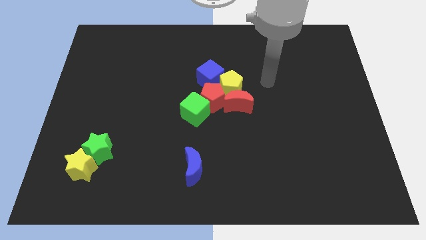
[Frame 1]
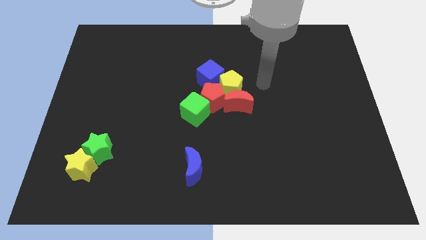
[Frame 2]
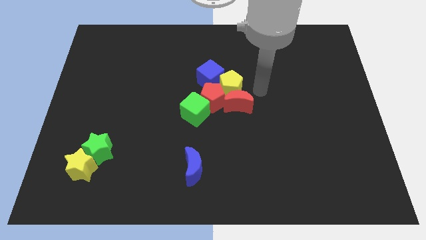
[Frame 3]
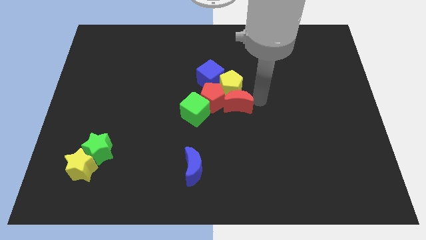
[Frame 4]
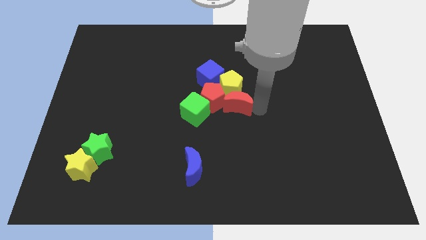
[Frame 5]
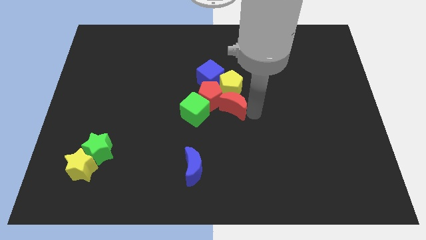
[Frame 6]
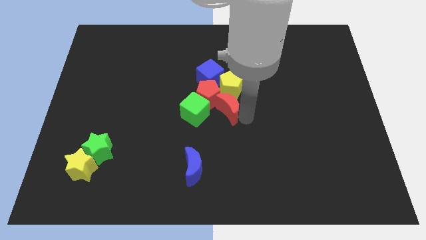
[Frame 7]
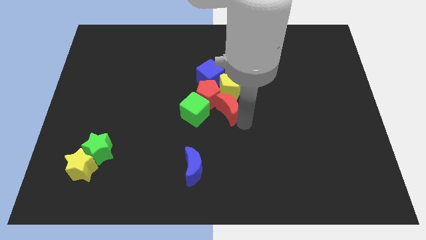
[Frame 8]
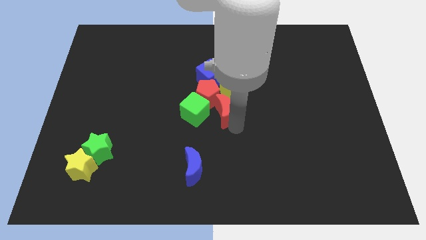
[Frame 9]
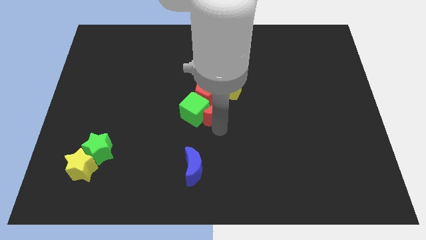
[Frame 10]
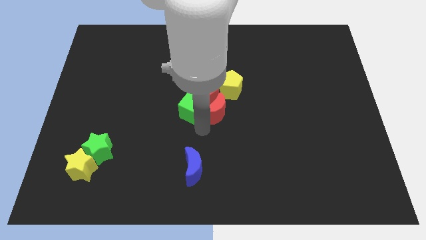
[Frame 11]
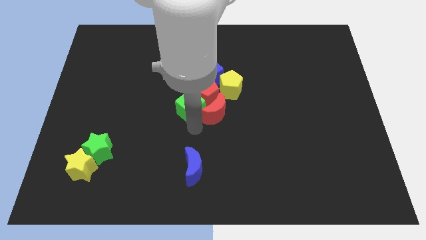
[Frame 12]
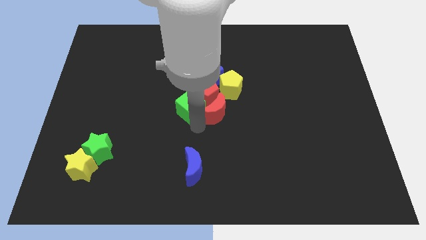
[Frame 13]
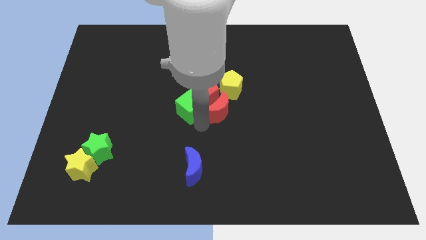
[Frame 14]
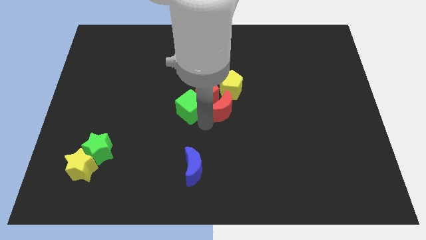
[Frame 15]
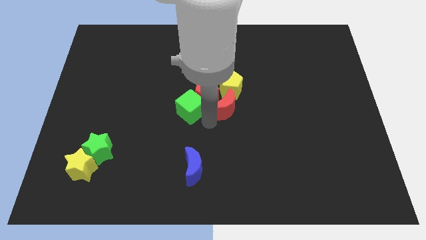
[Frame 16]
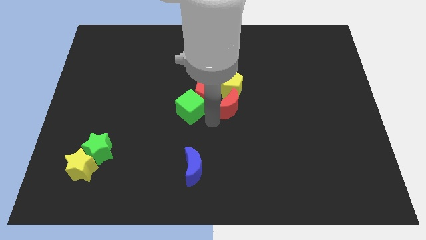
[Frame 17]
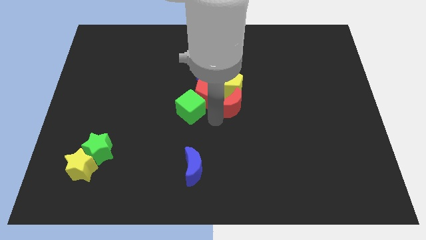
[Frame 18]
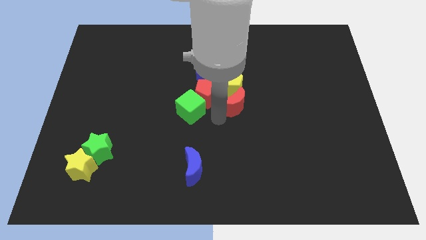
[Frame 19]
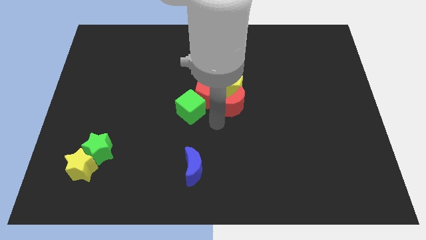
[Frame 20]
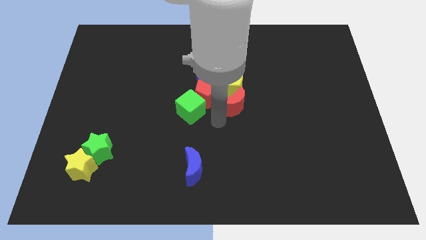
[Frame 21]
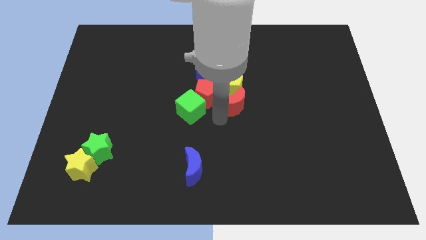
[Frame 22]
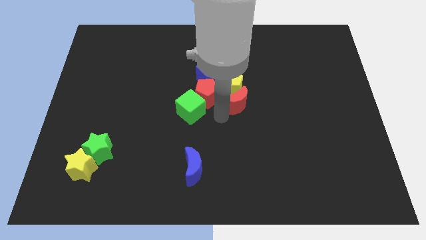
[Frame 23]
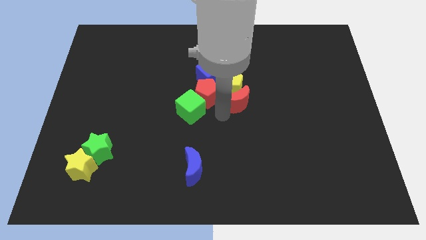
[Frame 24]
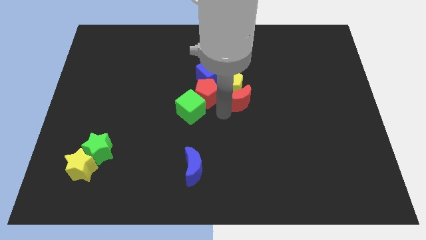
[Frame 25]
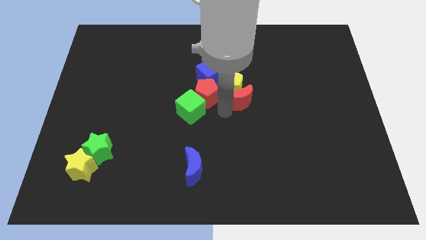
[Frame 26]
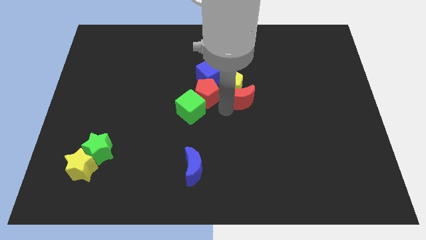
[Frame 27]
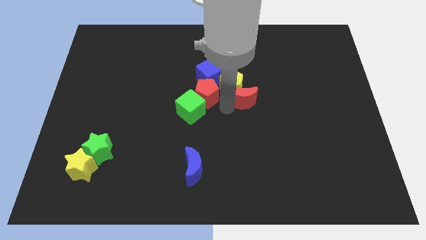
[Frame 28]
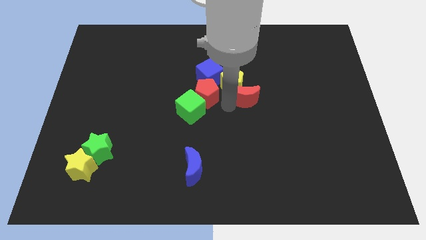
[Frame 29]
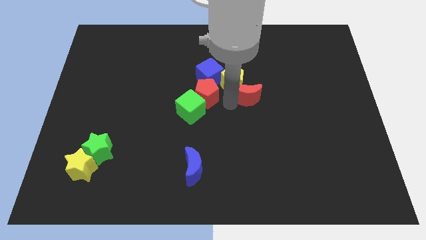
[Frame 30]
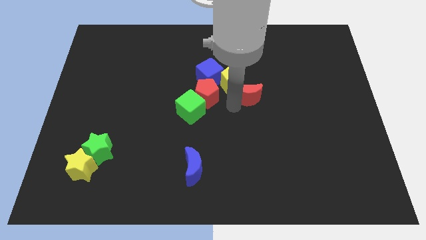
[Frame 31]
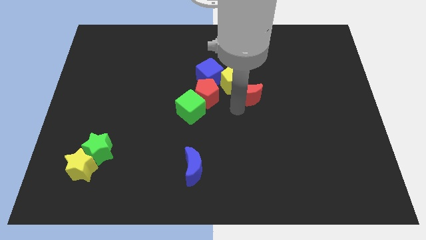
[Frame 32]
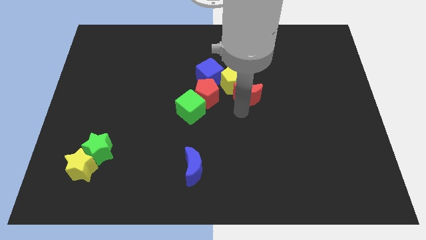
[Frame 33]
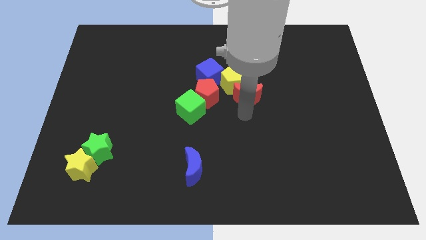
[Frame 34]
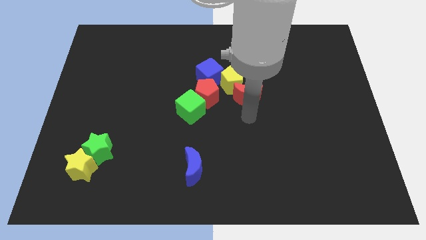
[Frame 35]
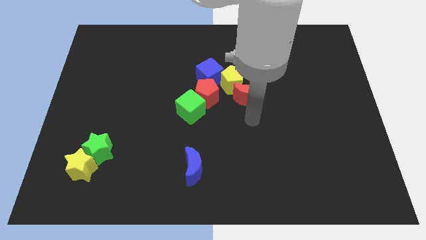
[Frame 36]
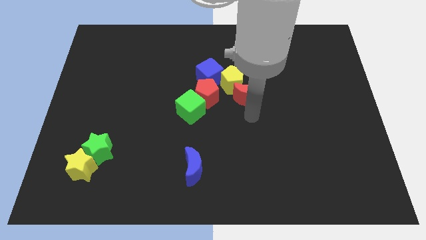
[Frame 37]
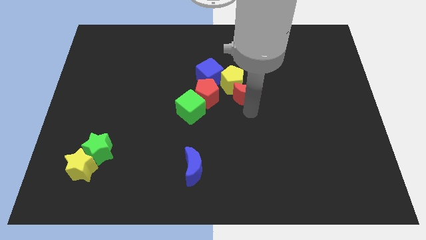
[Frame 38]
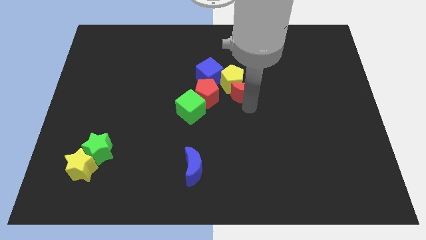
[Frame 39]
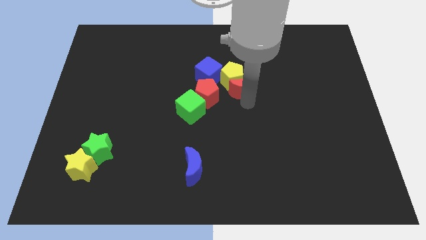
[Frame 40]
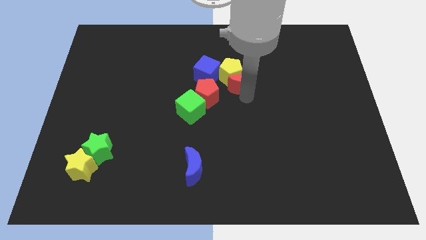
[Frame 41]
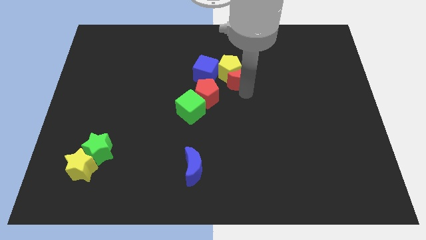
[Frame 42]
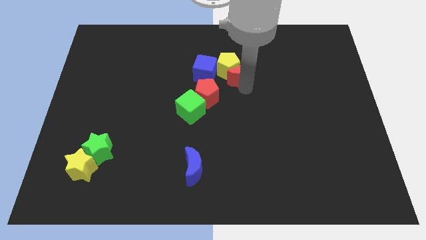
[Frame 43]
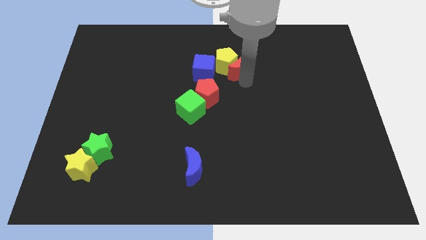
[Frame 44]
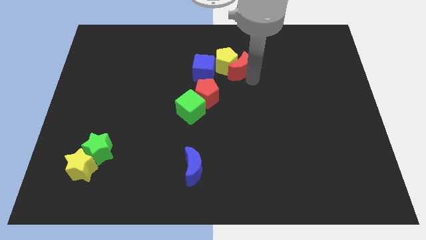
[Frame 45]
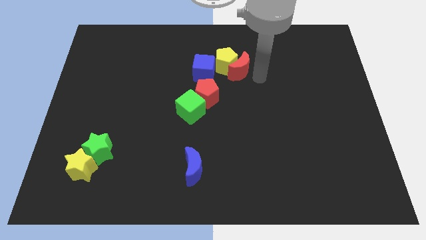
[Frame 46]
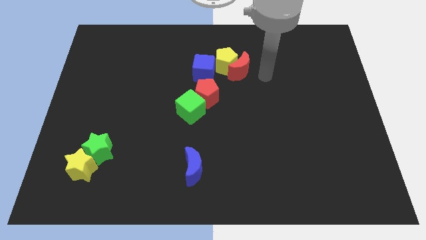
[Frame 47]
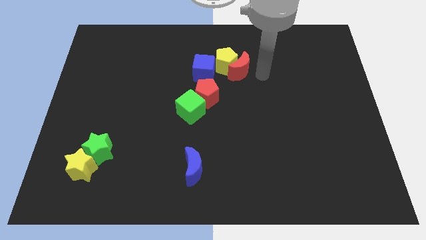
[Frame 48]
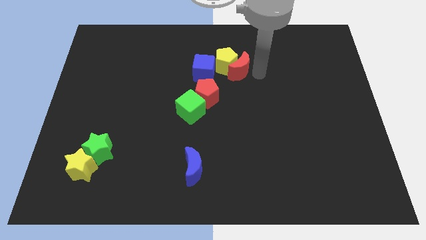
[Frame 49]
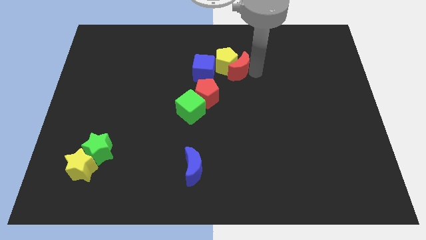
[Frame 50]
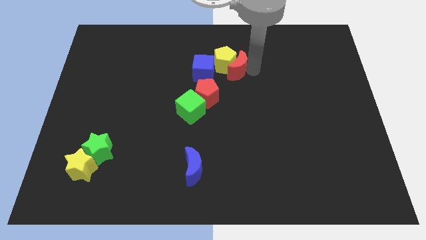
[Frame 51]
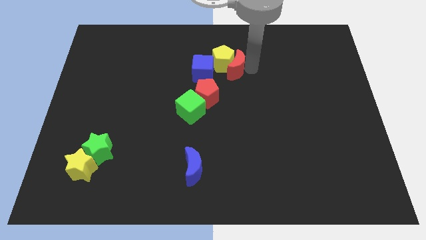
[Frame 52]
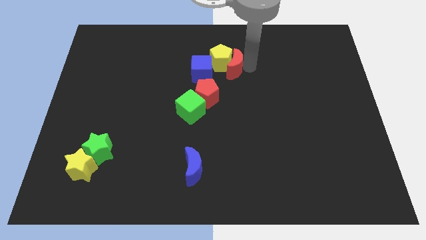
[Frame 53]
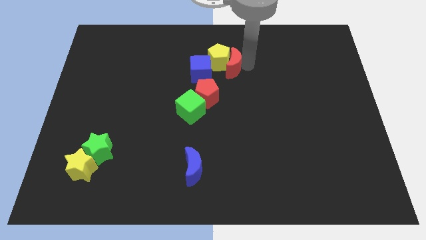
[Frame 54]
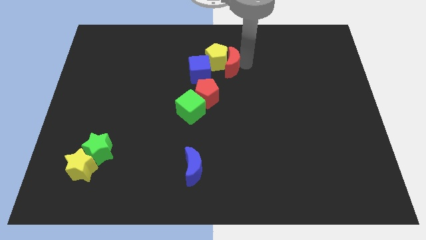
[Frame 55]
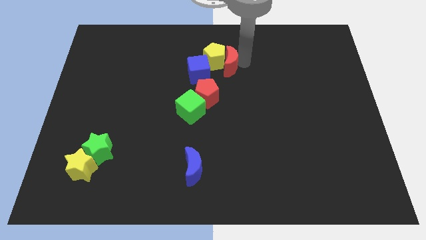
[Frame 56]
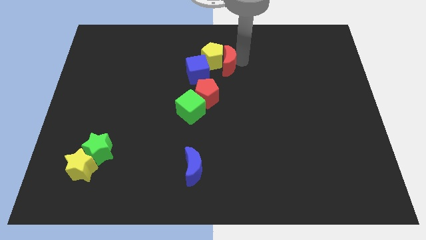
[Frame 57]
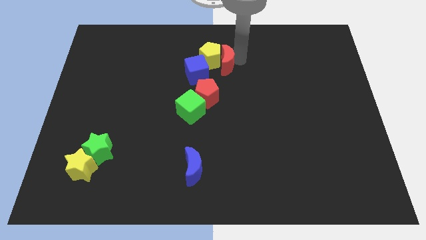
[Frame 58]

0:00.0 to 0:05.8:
move the red moon to the top of the red pentagon

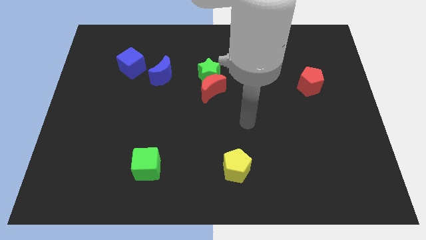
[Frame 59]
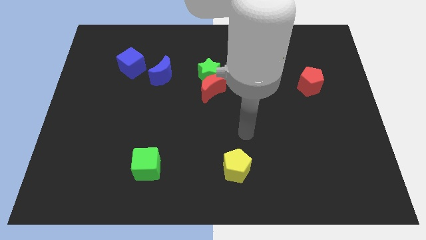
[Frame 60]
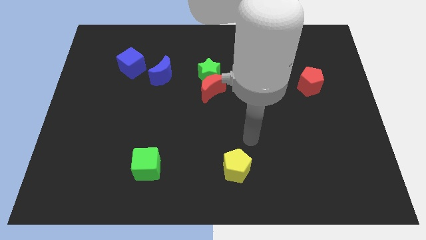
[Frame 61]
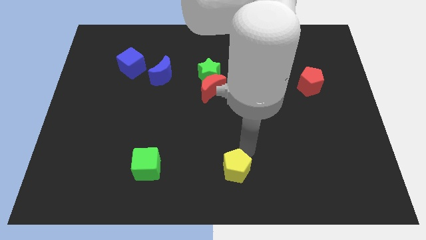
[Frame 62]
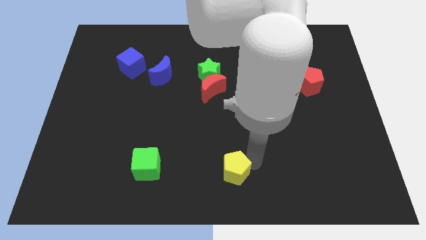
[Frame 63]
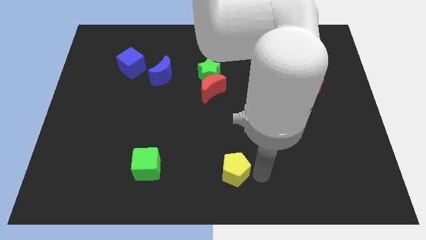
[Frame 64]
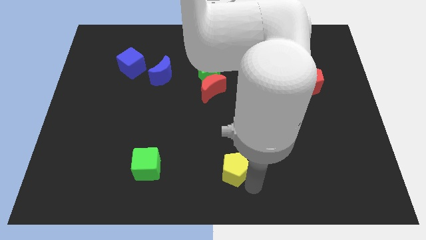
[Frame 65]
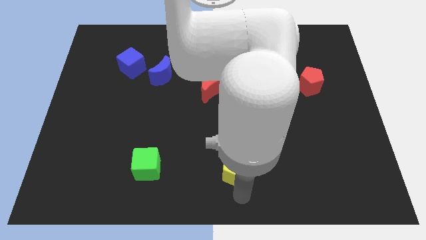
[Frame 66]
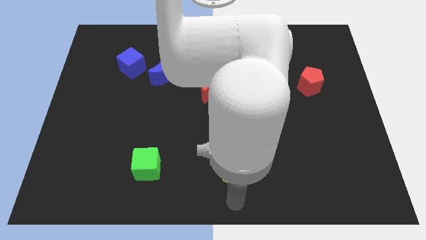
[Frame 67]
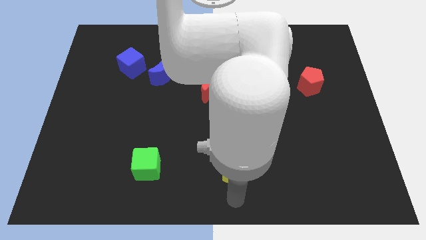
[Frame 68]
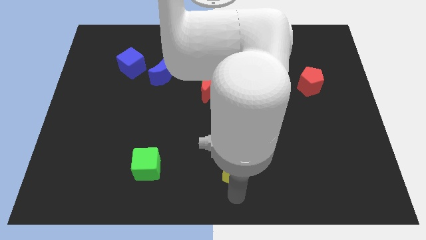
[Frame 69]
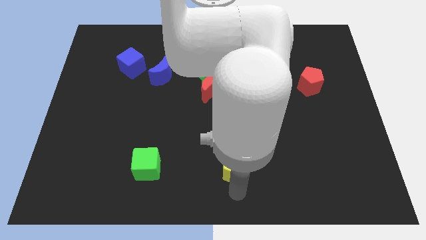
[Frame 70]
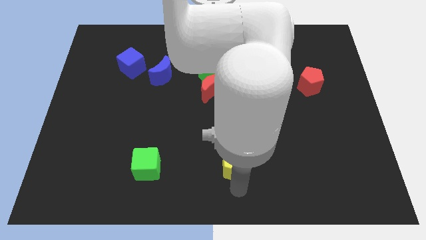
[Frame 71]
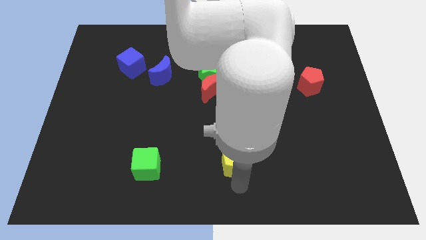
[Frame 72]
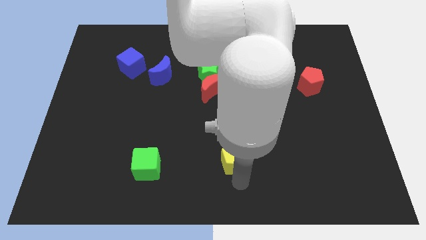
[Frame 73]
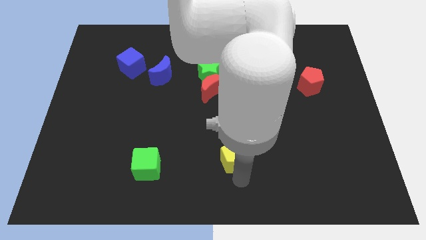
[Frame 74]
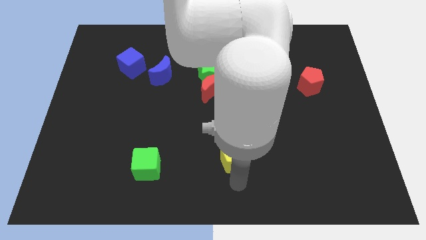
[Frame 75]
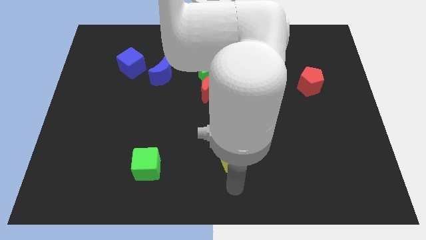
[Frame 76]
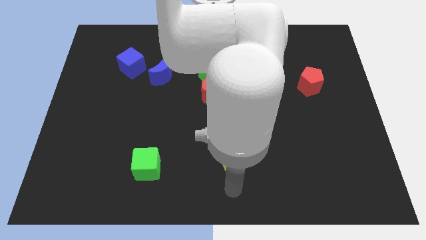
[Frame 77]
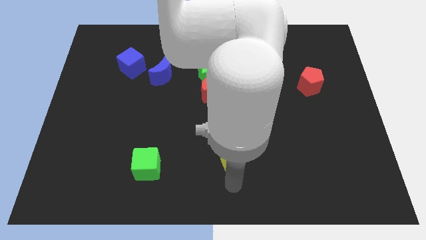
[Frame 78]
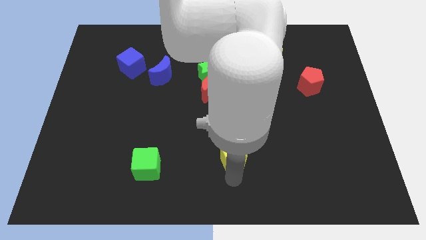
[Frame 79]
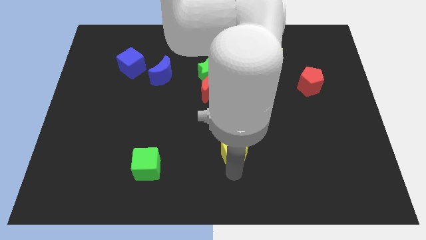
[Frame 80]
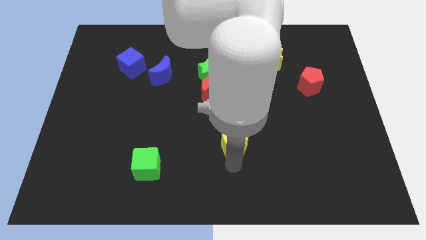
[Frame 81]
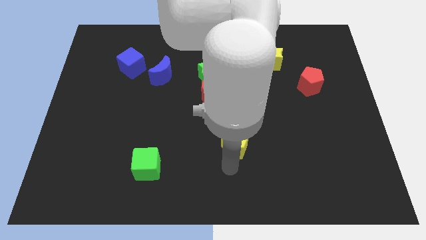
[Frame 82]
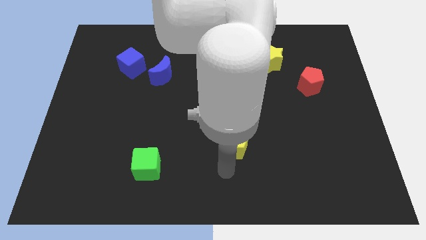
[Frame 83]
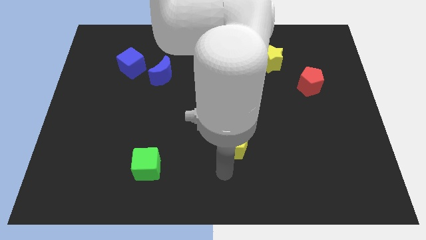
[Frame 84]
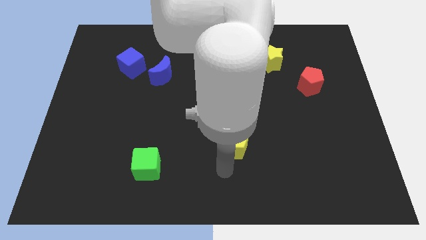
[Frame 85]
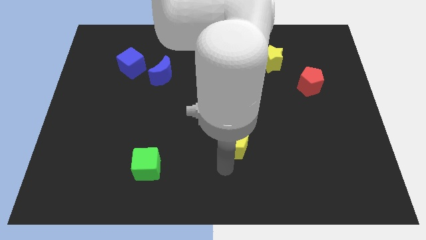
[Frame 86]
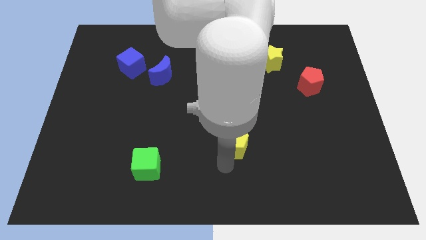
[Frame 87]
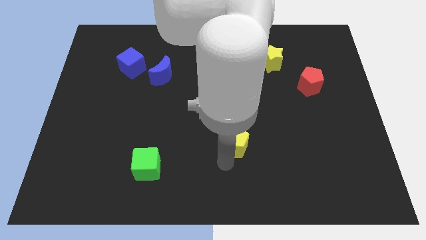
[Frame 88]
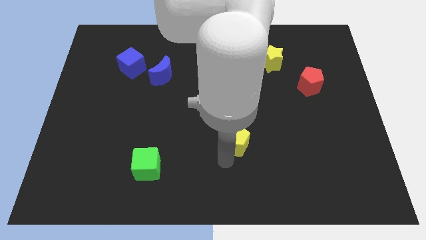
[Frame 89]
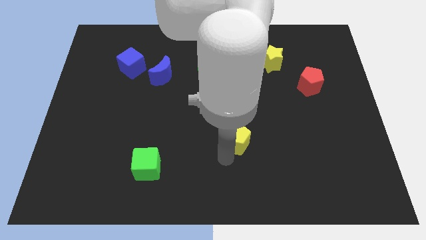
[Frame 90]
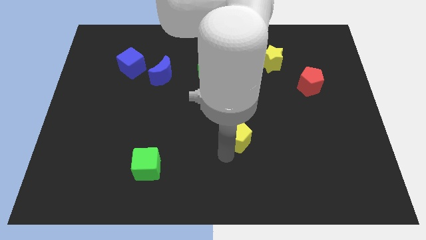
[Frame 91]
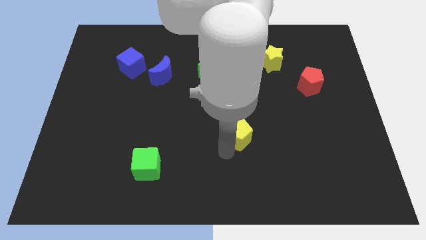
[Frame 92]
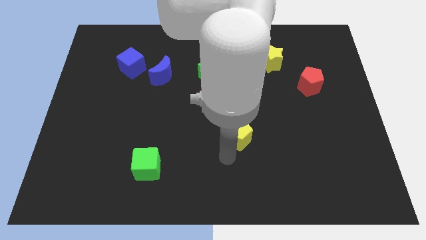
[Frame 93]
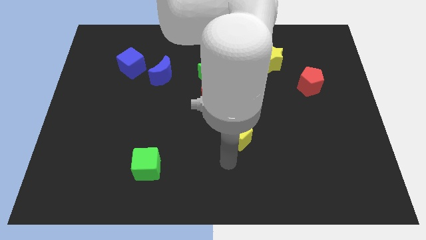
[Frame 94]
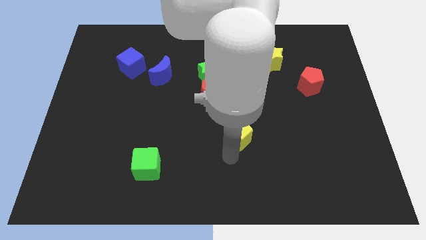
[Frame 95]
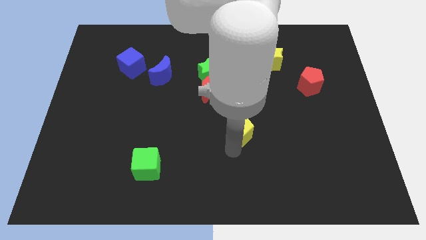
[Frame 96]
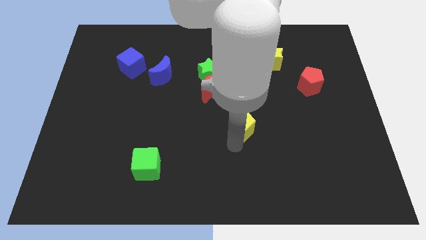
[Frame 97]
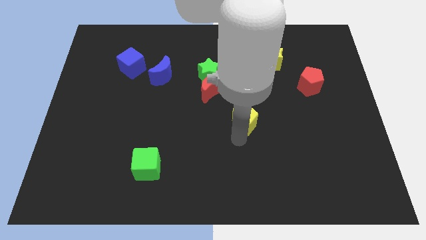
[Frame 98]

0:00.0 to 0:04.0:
slide the yellow pentagon to the bottom right side of the red moon
